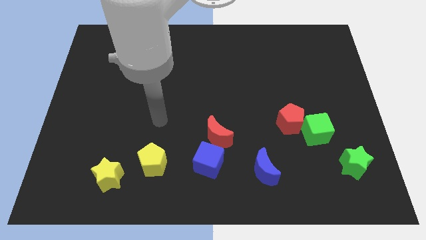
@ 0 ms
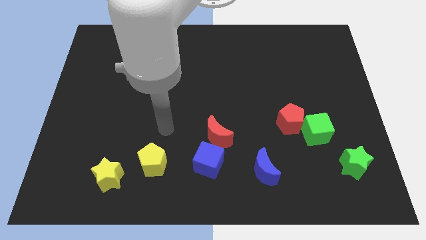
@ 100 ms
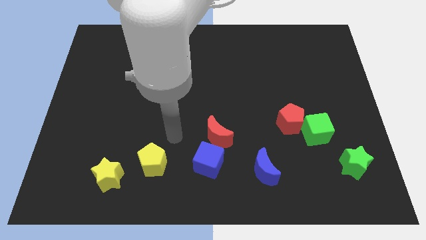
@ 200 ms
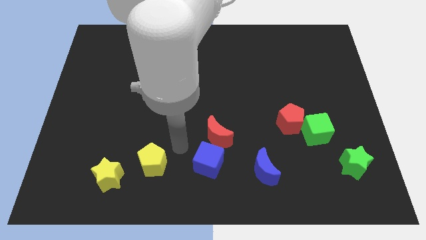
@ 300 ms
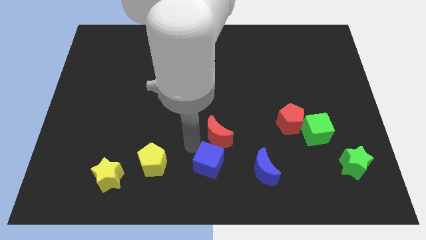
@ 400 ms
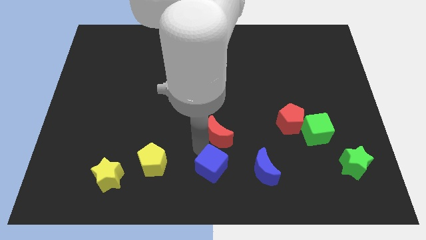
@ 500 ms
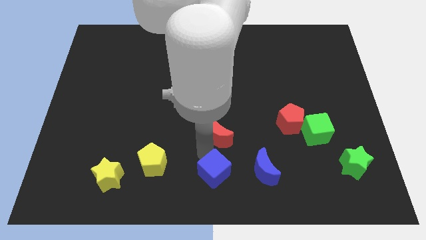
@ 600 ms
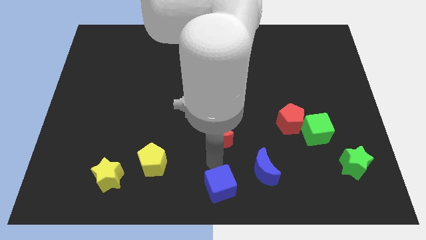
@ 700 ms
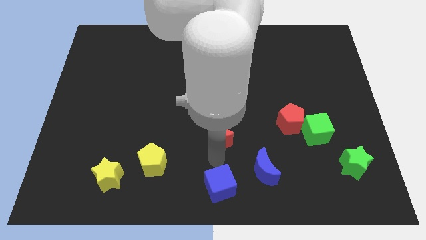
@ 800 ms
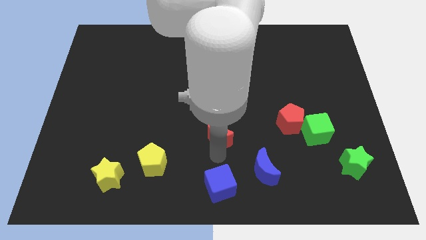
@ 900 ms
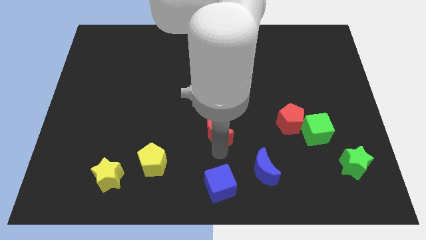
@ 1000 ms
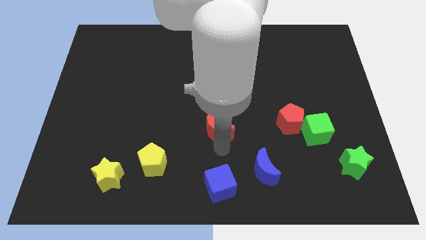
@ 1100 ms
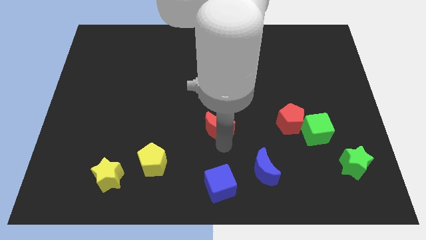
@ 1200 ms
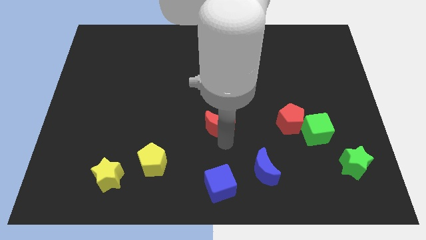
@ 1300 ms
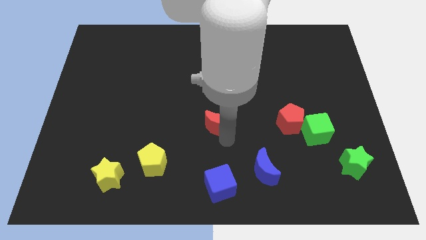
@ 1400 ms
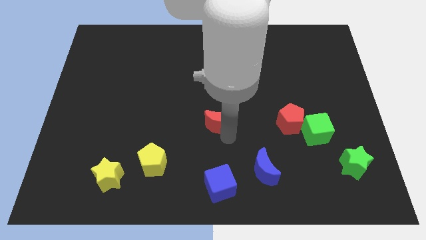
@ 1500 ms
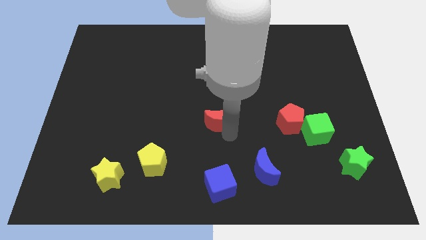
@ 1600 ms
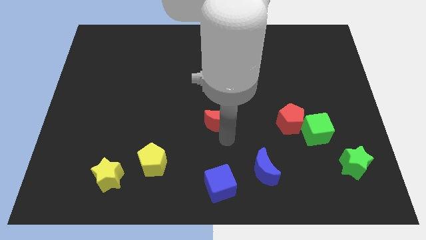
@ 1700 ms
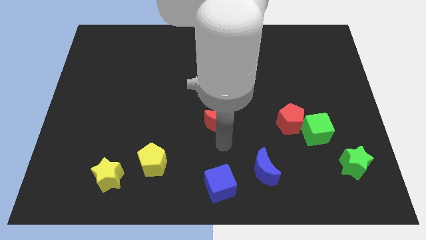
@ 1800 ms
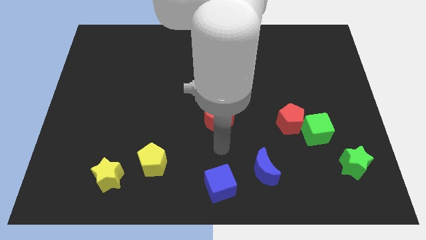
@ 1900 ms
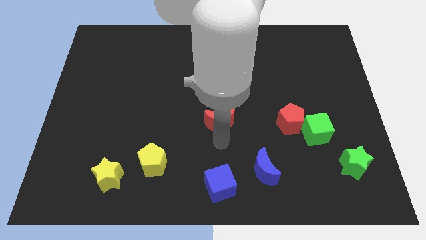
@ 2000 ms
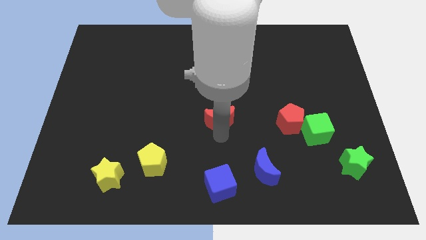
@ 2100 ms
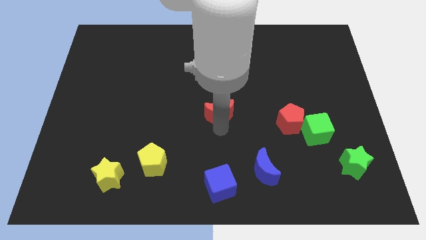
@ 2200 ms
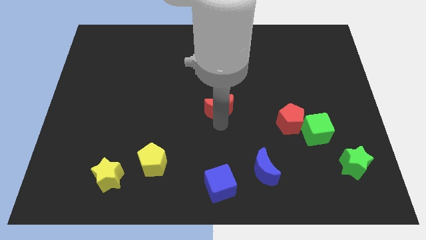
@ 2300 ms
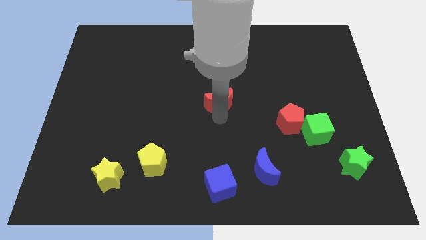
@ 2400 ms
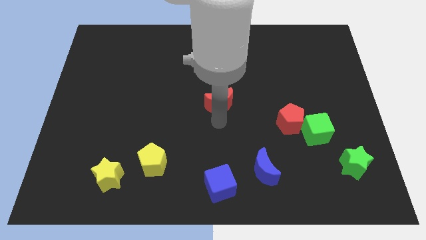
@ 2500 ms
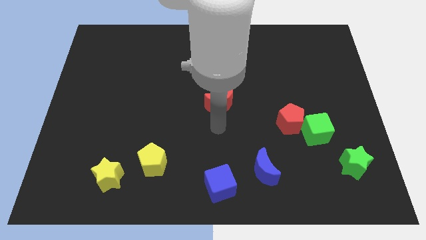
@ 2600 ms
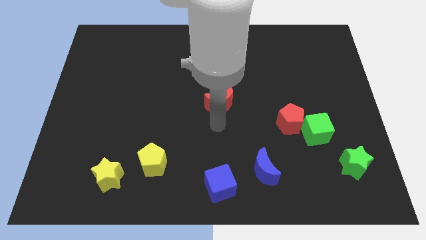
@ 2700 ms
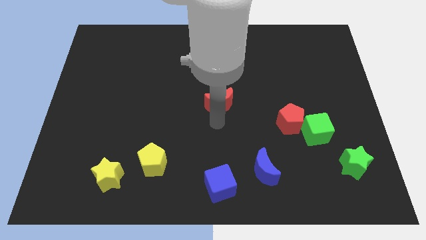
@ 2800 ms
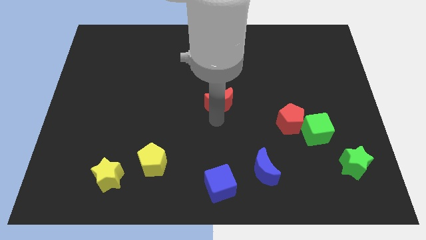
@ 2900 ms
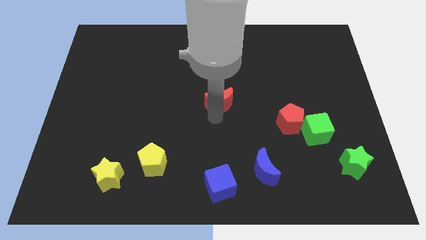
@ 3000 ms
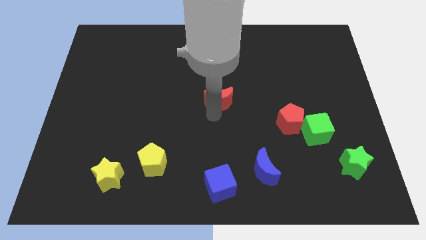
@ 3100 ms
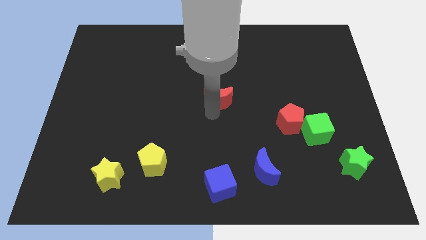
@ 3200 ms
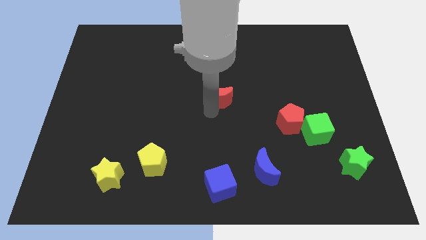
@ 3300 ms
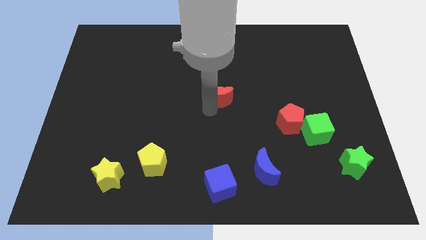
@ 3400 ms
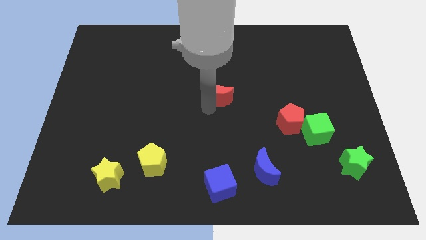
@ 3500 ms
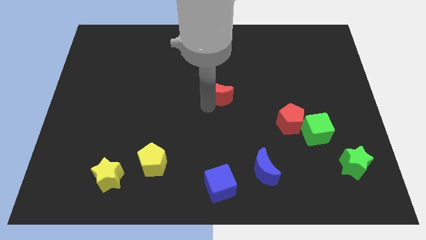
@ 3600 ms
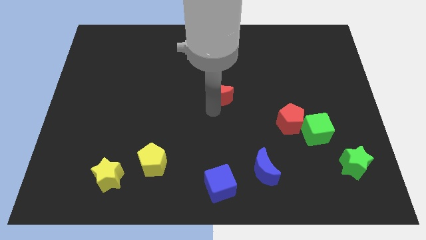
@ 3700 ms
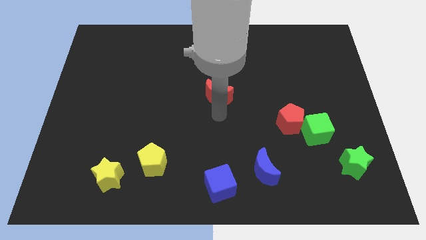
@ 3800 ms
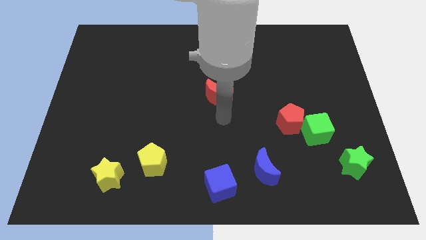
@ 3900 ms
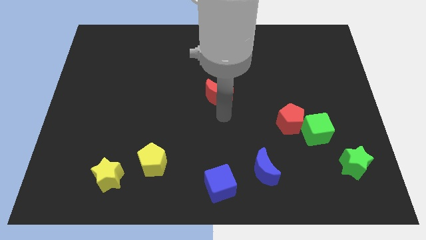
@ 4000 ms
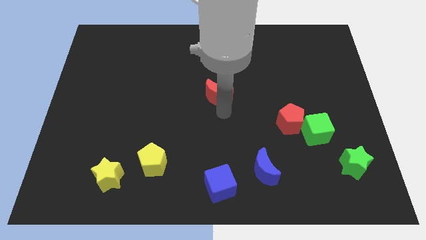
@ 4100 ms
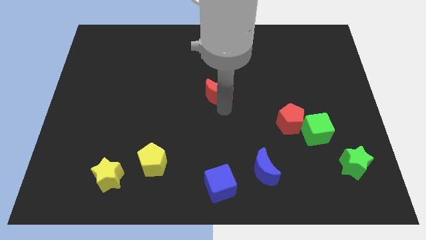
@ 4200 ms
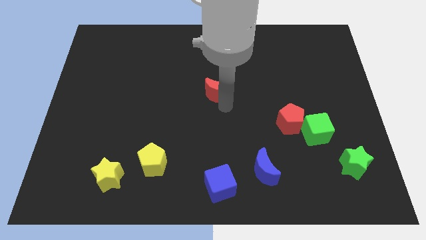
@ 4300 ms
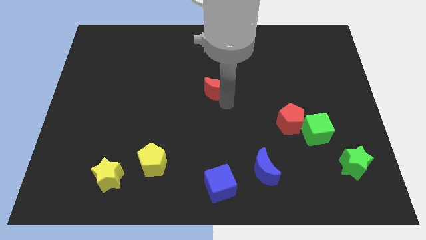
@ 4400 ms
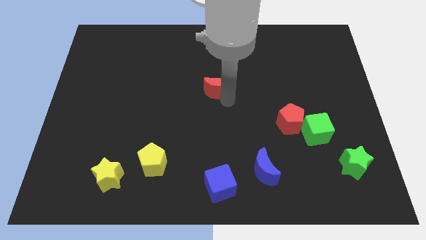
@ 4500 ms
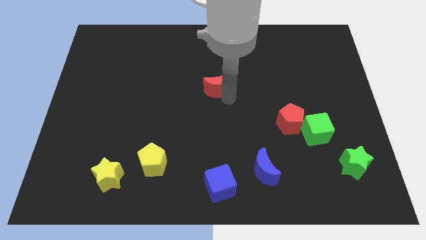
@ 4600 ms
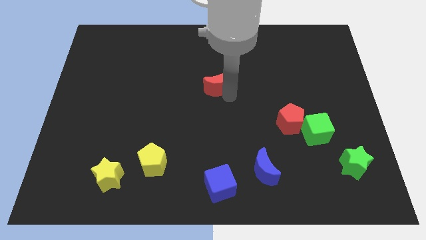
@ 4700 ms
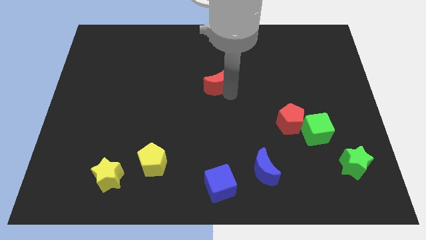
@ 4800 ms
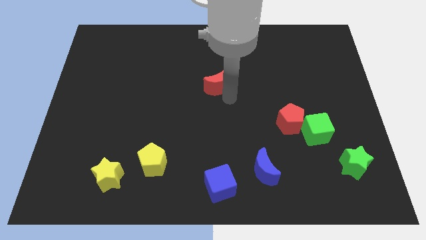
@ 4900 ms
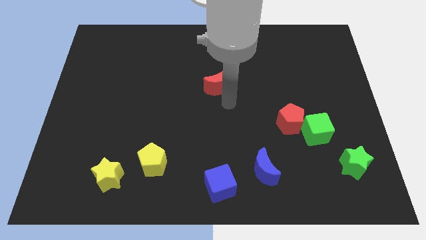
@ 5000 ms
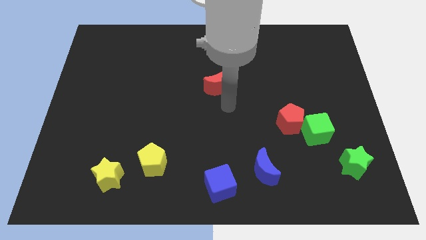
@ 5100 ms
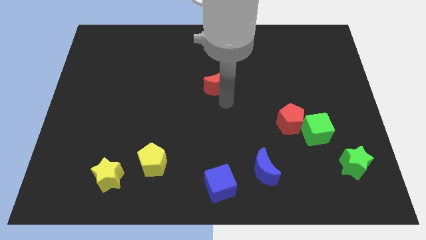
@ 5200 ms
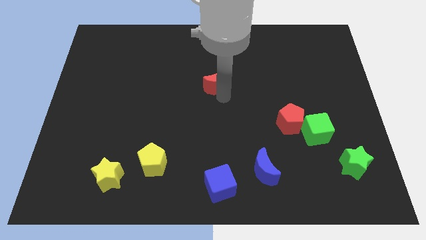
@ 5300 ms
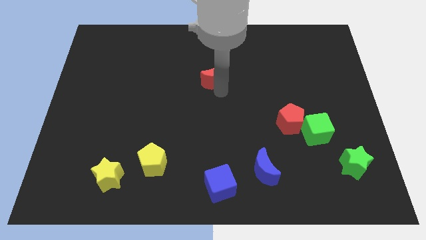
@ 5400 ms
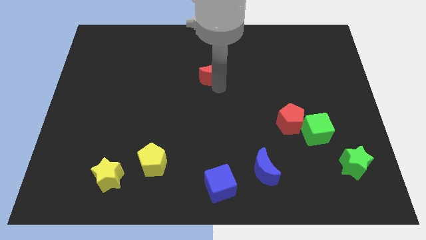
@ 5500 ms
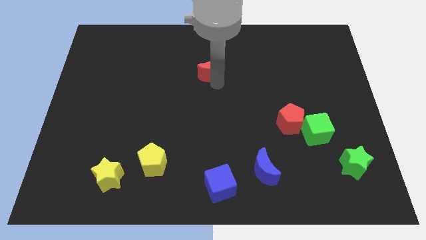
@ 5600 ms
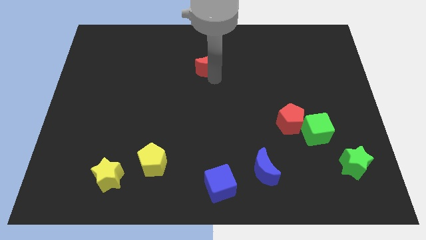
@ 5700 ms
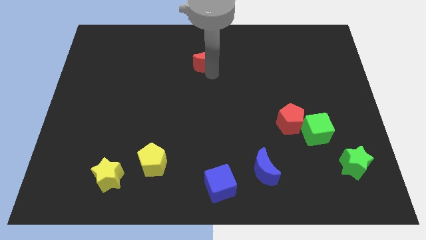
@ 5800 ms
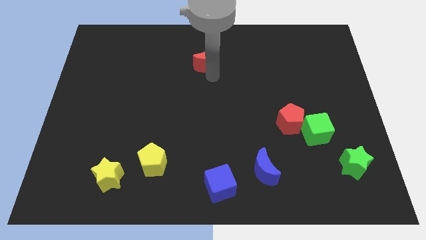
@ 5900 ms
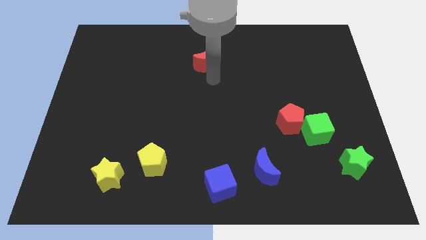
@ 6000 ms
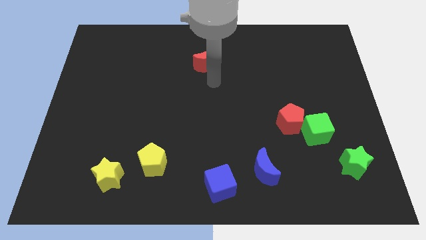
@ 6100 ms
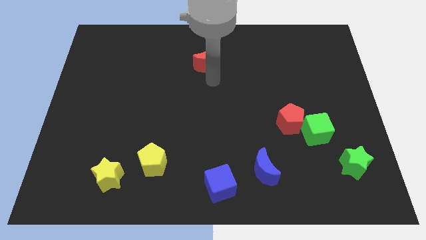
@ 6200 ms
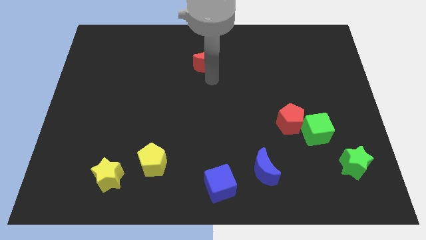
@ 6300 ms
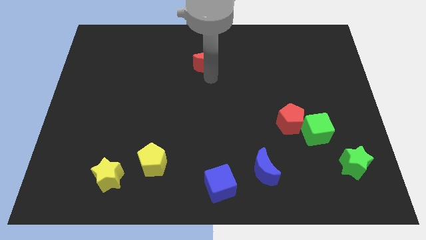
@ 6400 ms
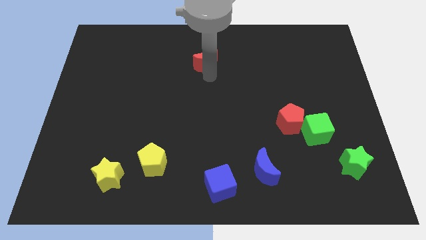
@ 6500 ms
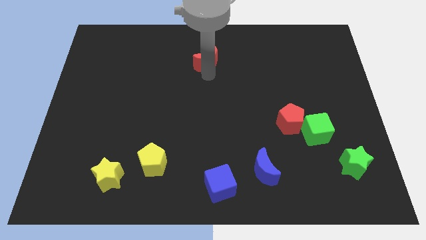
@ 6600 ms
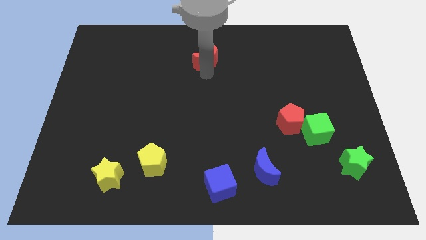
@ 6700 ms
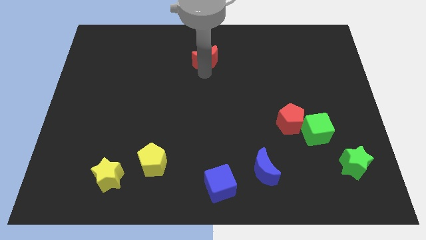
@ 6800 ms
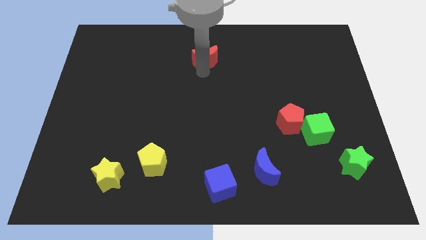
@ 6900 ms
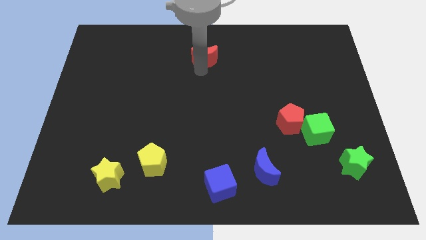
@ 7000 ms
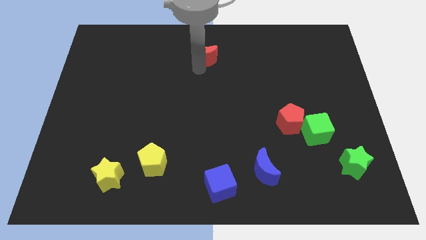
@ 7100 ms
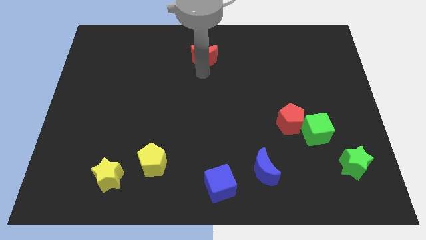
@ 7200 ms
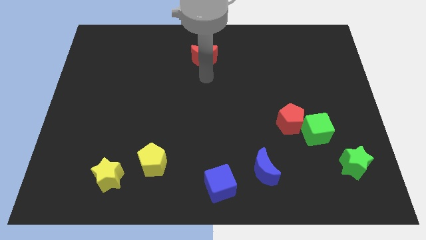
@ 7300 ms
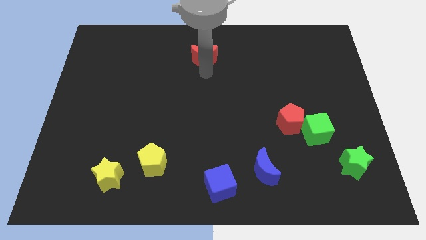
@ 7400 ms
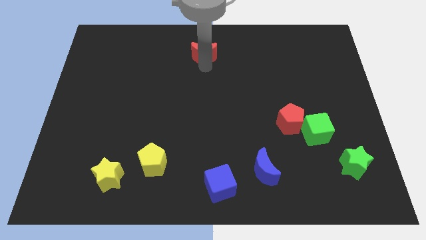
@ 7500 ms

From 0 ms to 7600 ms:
slide the red moon to the towards your base

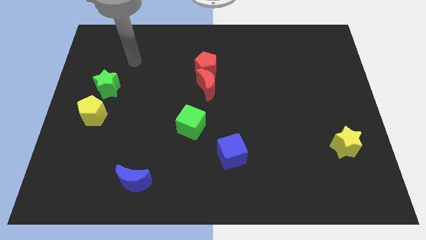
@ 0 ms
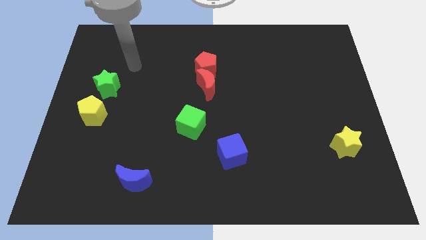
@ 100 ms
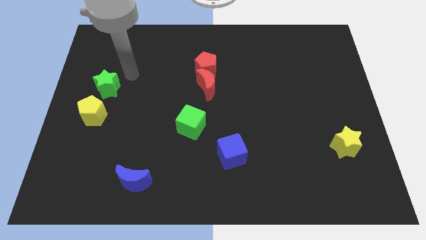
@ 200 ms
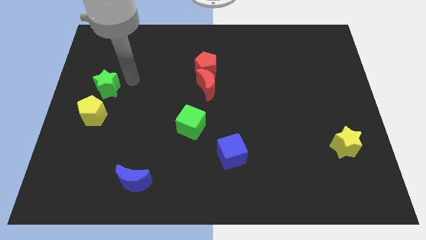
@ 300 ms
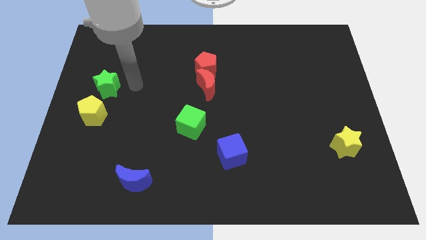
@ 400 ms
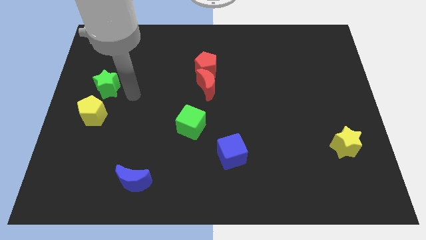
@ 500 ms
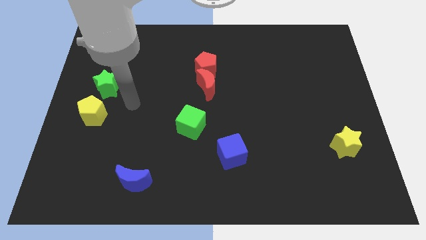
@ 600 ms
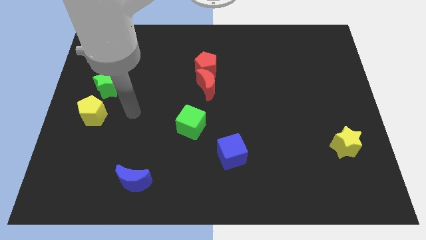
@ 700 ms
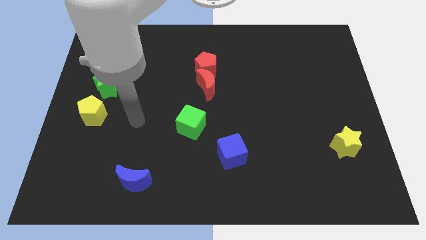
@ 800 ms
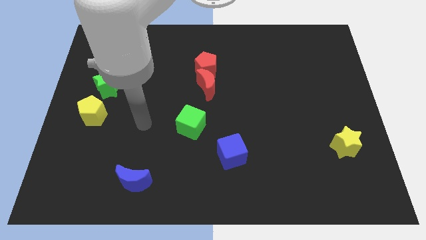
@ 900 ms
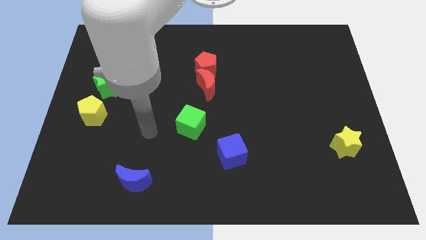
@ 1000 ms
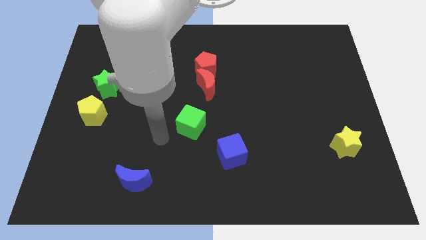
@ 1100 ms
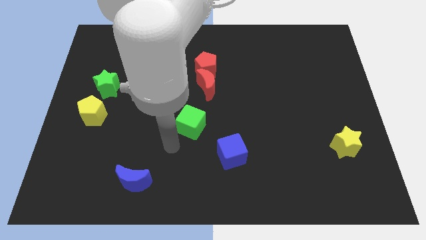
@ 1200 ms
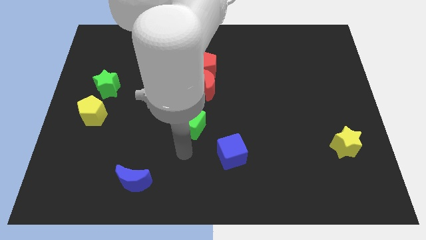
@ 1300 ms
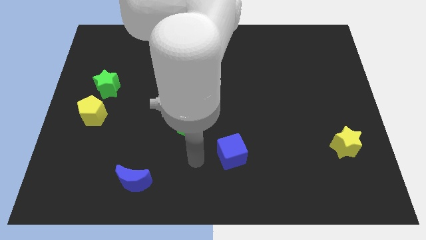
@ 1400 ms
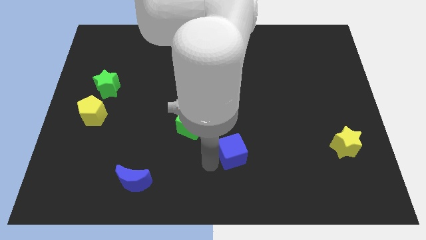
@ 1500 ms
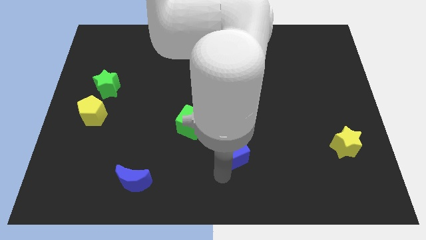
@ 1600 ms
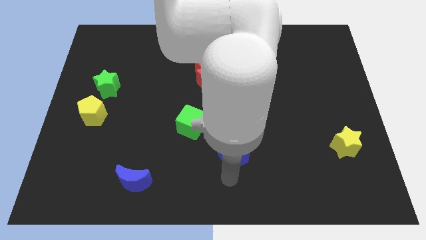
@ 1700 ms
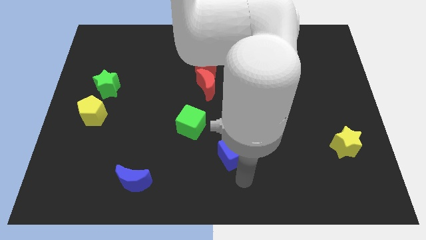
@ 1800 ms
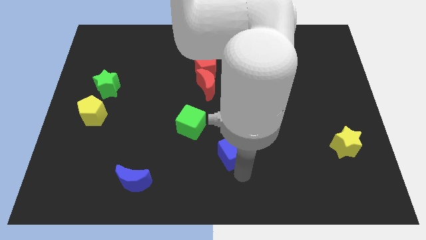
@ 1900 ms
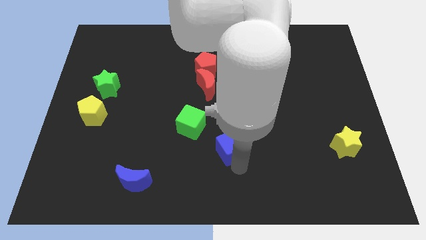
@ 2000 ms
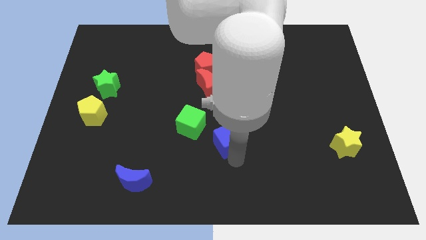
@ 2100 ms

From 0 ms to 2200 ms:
push the blue cube to the middle of the board
